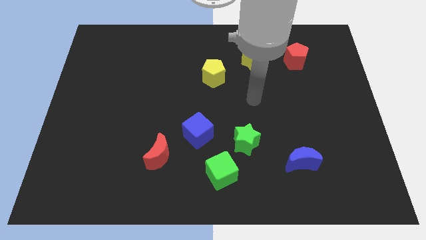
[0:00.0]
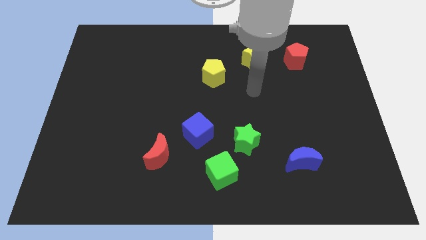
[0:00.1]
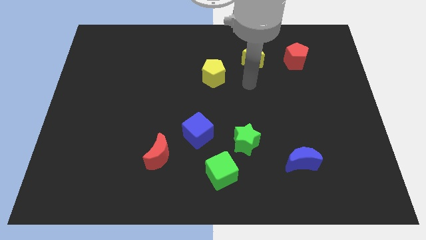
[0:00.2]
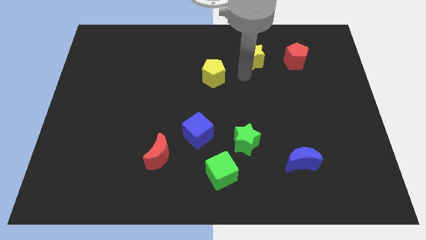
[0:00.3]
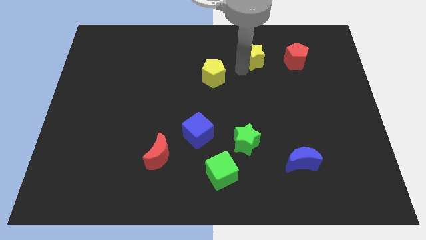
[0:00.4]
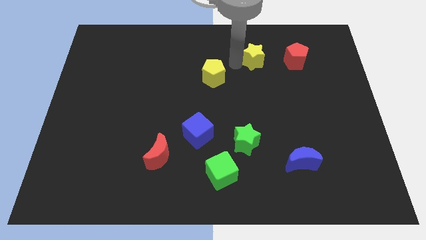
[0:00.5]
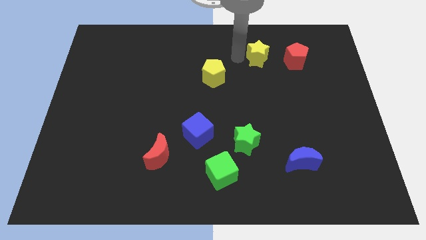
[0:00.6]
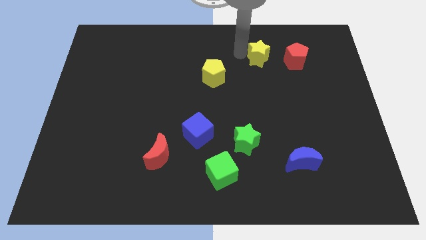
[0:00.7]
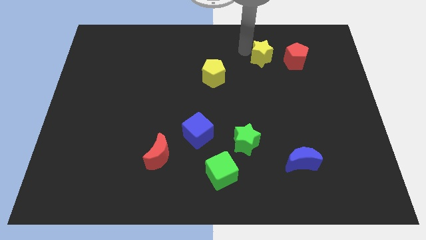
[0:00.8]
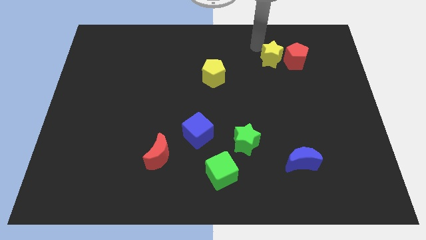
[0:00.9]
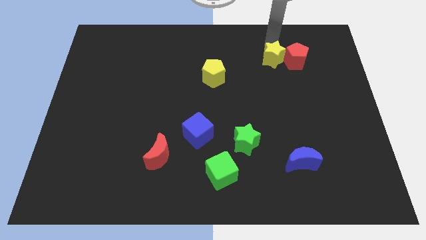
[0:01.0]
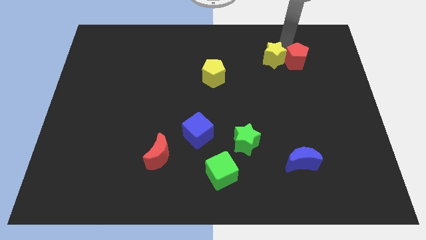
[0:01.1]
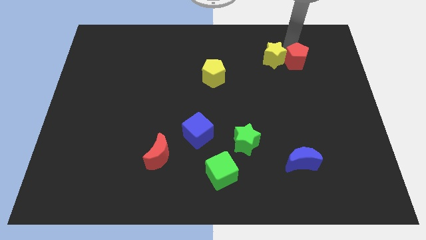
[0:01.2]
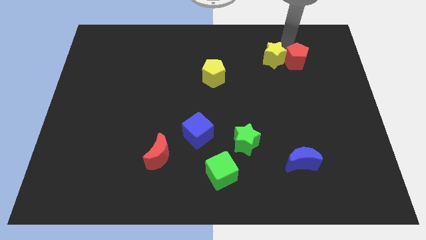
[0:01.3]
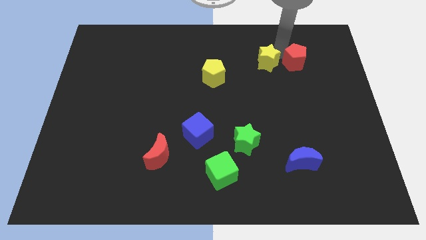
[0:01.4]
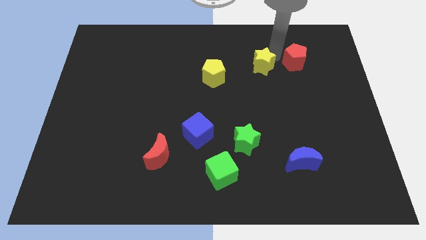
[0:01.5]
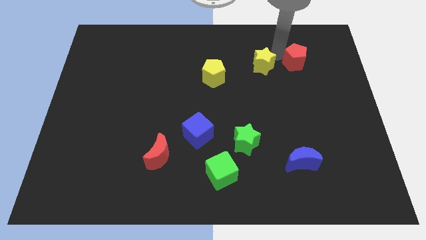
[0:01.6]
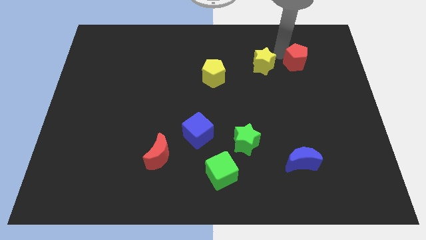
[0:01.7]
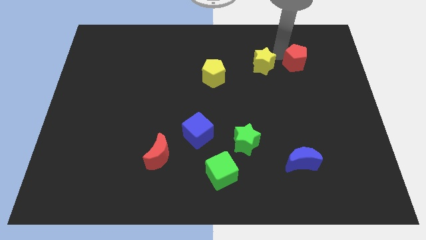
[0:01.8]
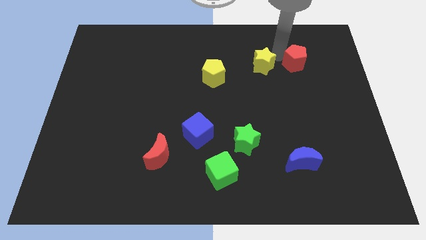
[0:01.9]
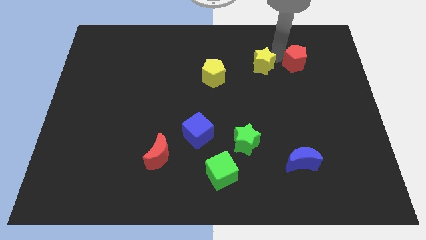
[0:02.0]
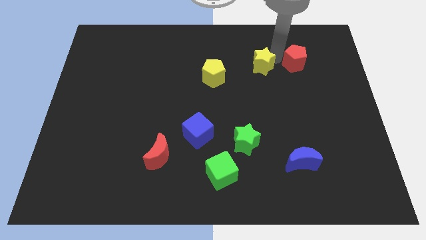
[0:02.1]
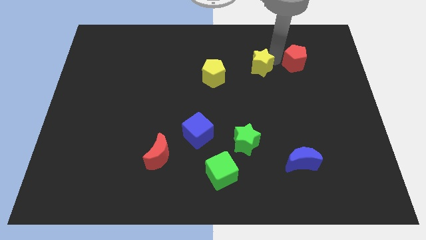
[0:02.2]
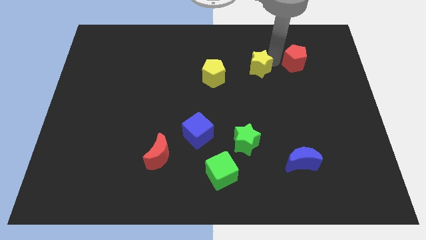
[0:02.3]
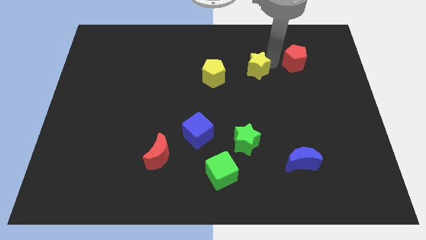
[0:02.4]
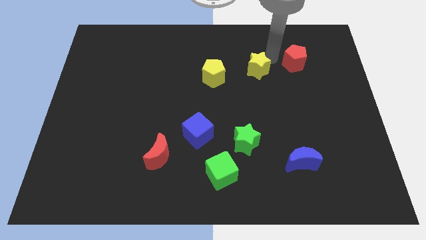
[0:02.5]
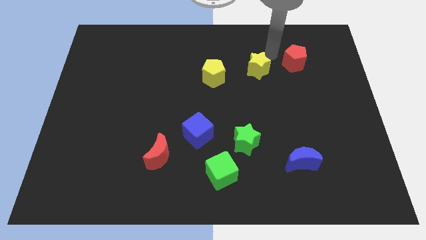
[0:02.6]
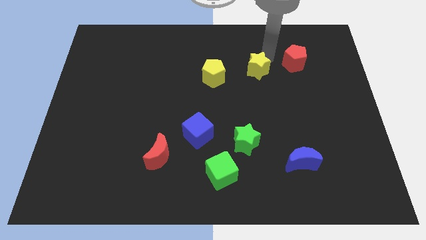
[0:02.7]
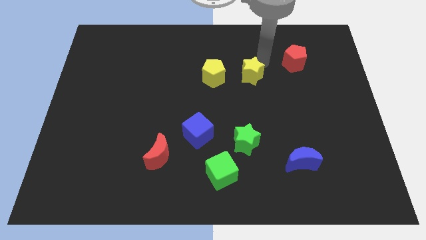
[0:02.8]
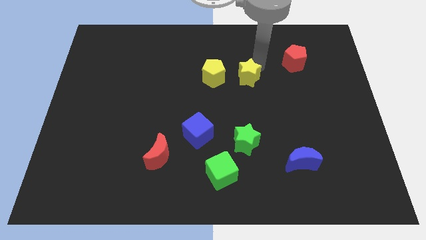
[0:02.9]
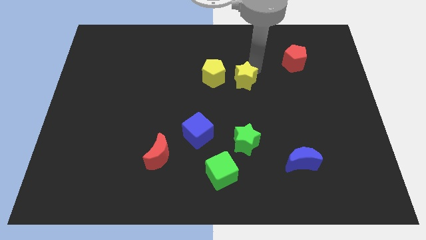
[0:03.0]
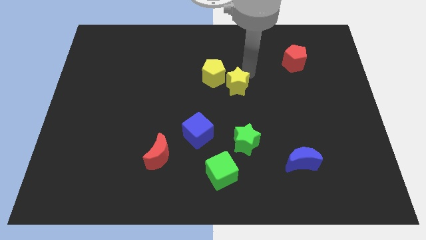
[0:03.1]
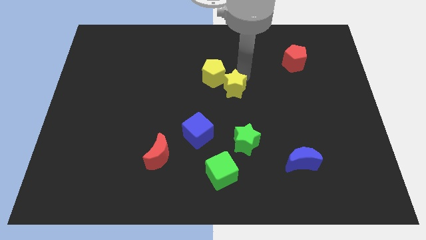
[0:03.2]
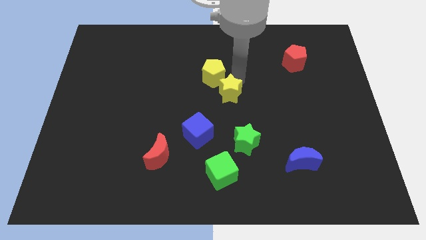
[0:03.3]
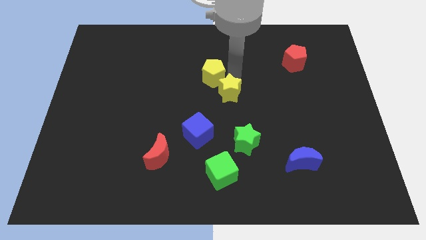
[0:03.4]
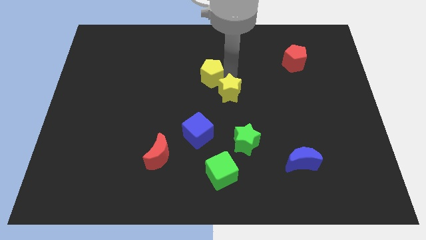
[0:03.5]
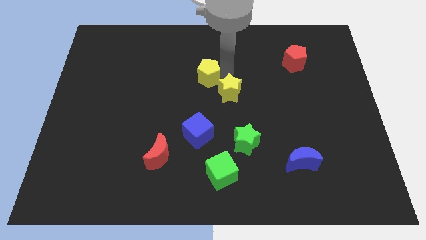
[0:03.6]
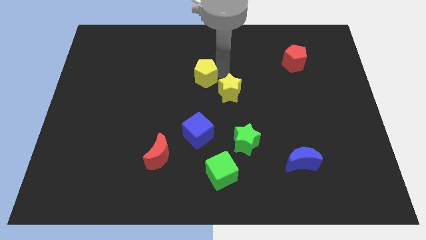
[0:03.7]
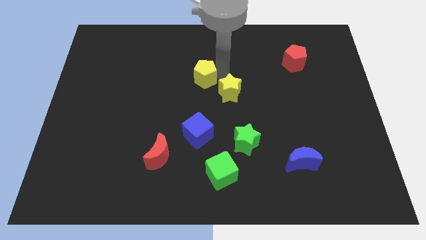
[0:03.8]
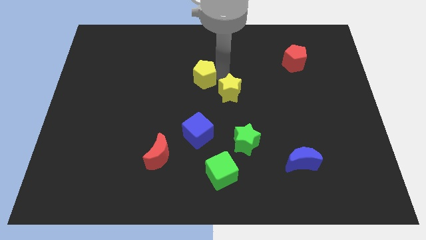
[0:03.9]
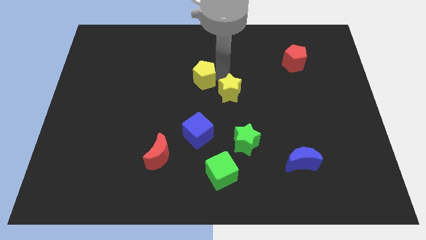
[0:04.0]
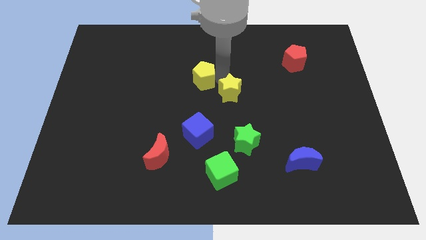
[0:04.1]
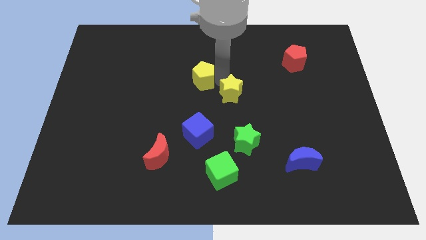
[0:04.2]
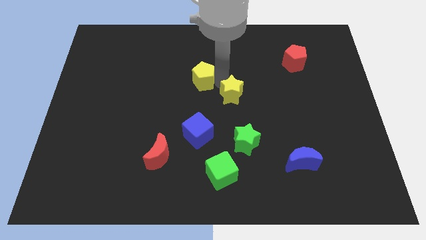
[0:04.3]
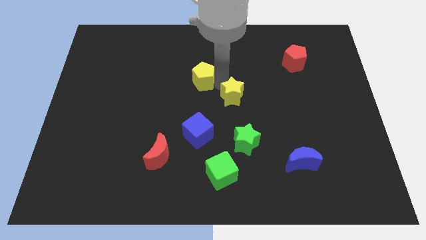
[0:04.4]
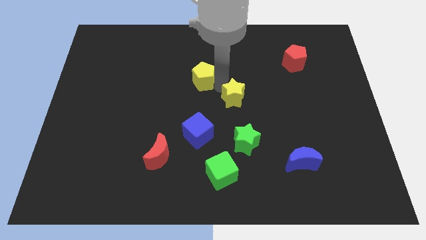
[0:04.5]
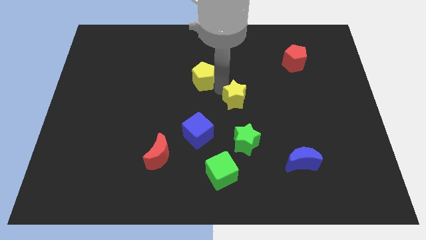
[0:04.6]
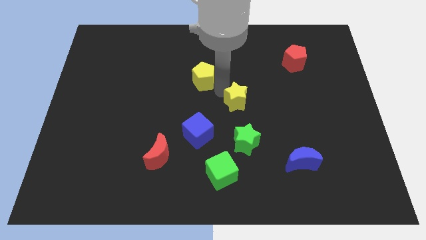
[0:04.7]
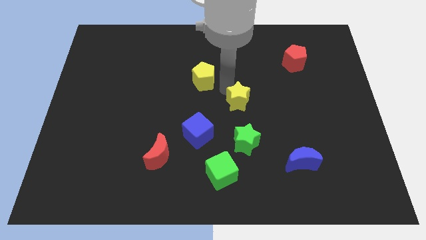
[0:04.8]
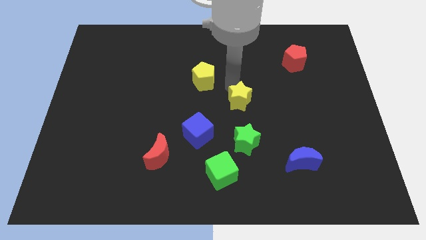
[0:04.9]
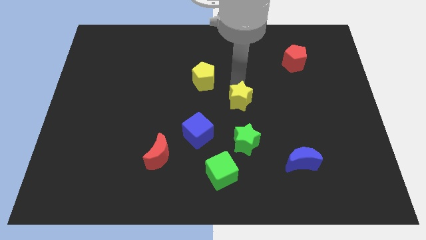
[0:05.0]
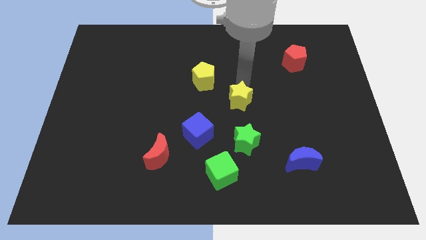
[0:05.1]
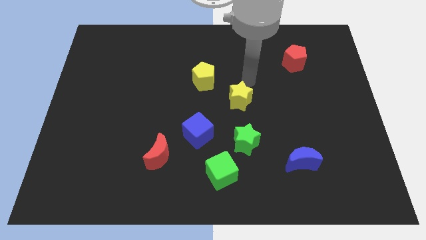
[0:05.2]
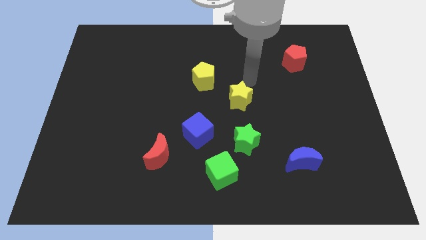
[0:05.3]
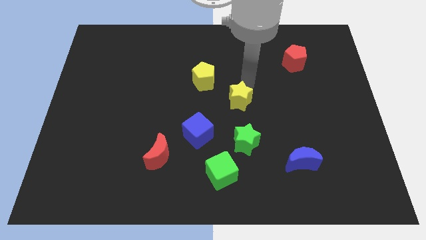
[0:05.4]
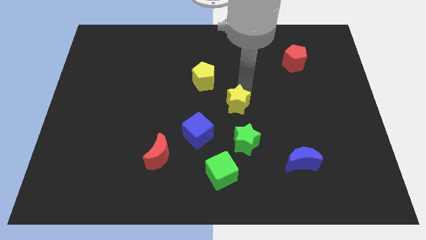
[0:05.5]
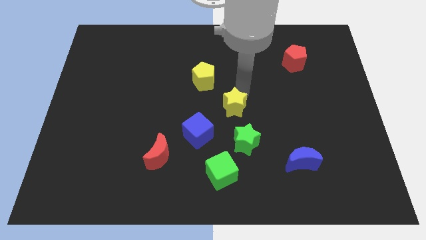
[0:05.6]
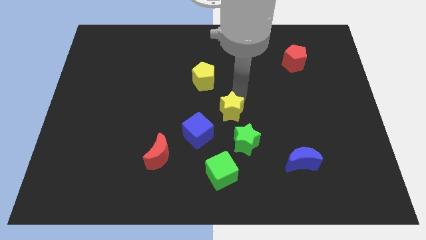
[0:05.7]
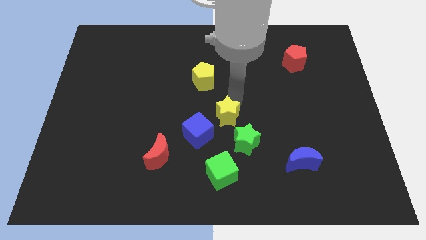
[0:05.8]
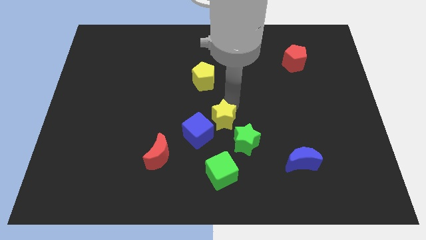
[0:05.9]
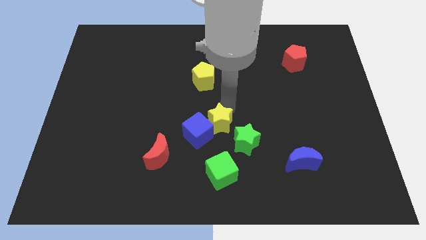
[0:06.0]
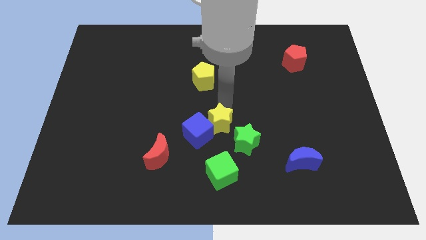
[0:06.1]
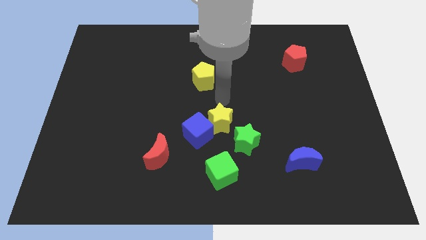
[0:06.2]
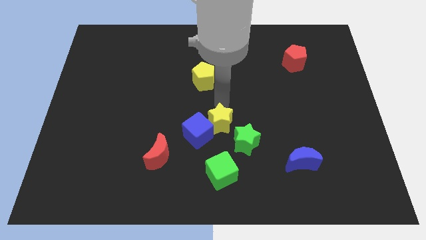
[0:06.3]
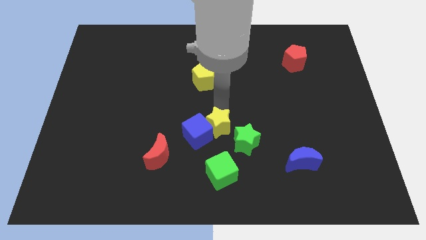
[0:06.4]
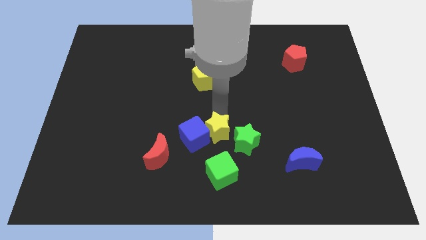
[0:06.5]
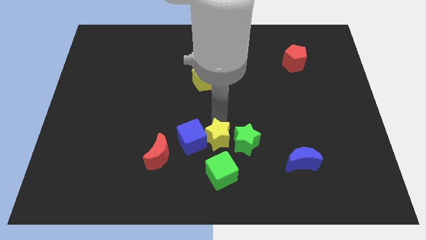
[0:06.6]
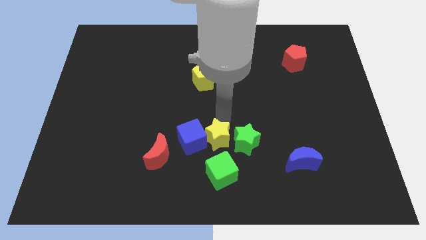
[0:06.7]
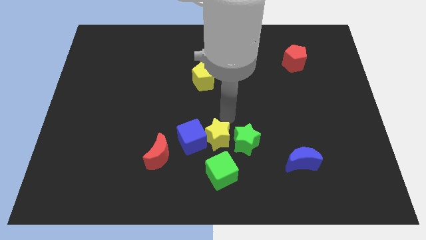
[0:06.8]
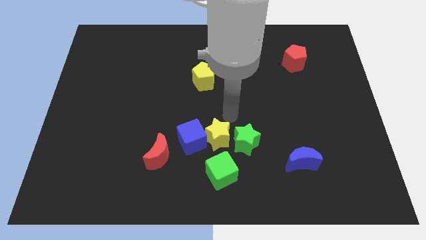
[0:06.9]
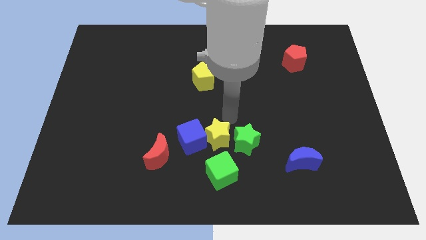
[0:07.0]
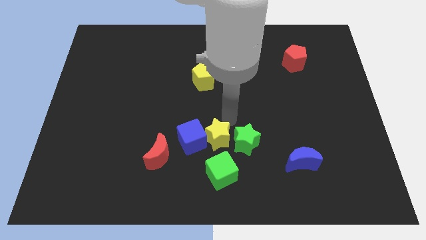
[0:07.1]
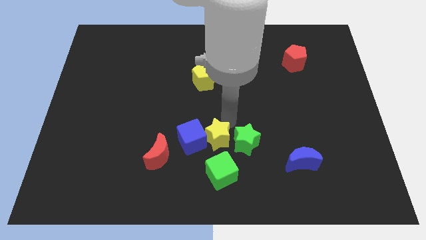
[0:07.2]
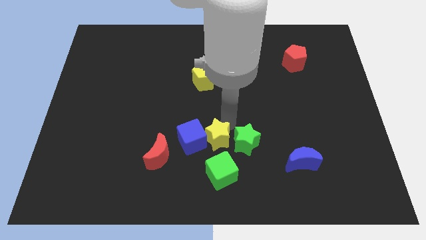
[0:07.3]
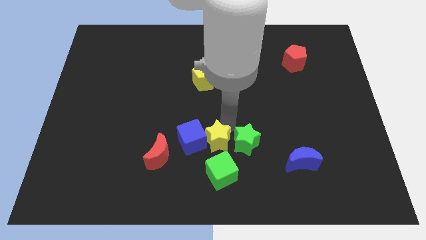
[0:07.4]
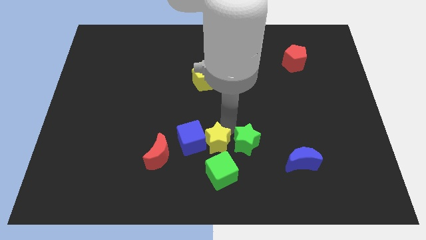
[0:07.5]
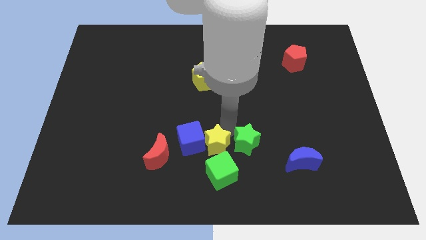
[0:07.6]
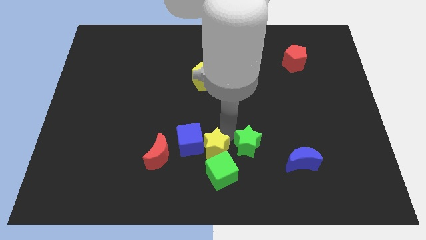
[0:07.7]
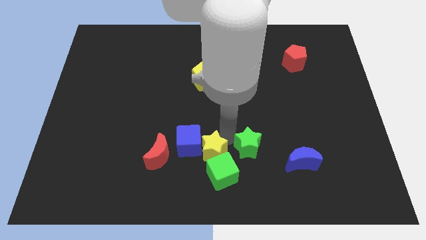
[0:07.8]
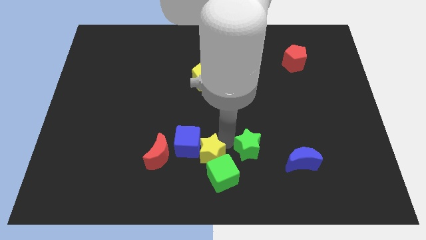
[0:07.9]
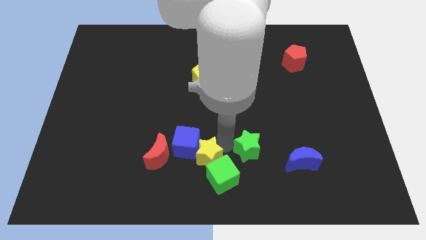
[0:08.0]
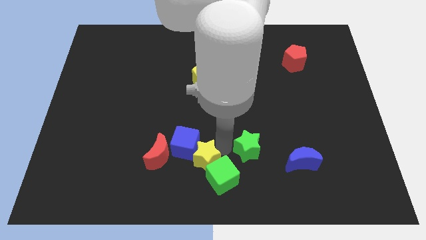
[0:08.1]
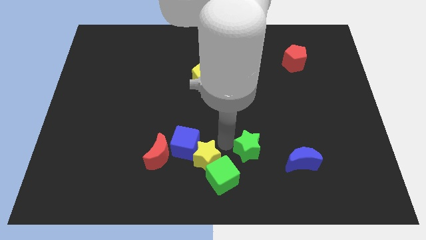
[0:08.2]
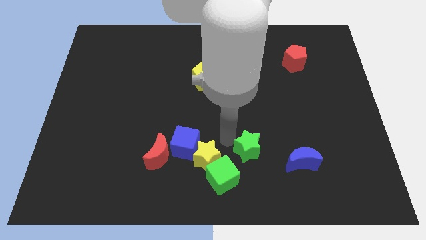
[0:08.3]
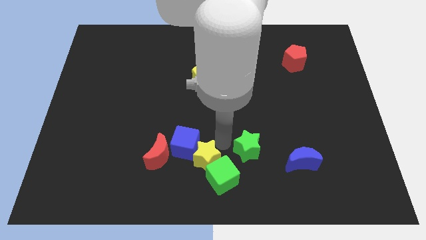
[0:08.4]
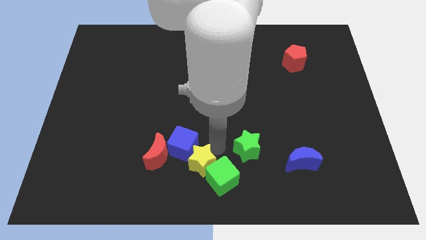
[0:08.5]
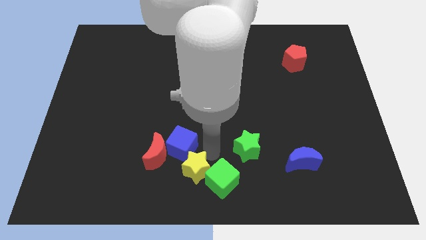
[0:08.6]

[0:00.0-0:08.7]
put the yellow star to the bottom right of the red moon
